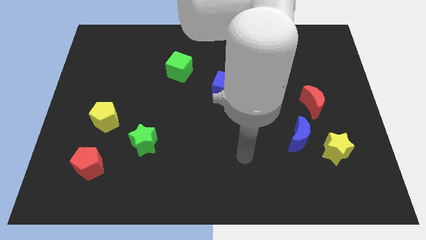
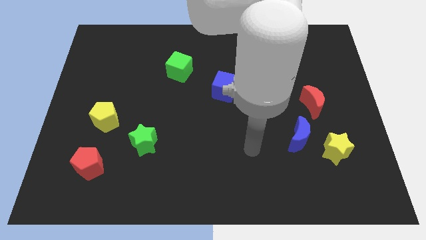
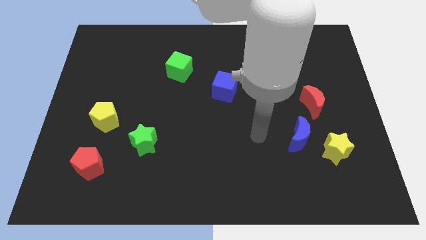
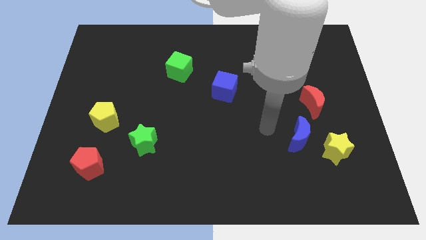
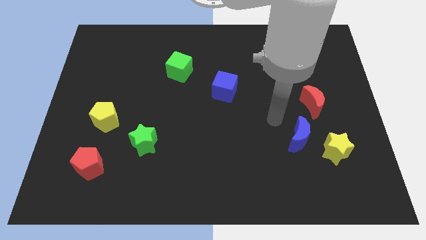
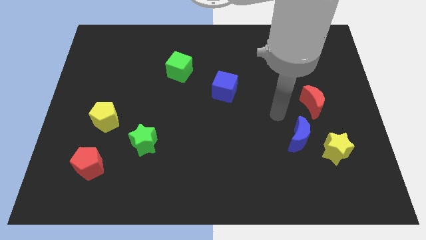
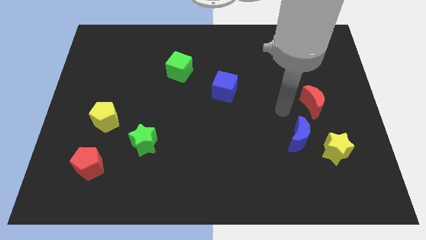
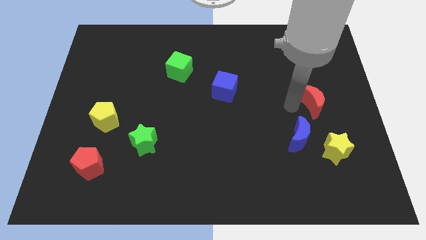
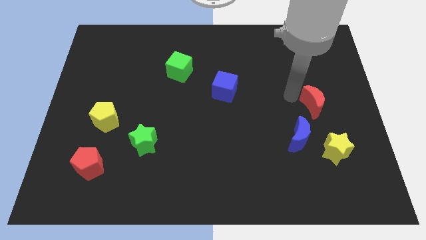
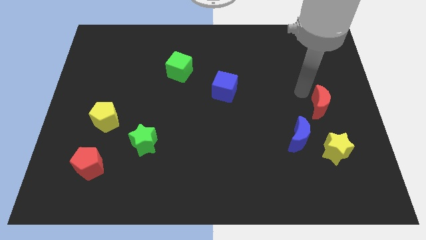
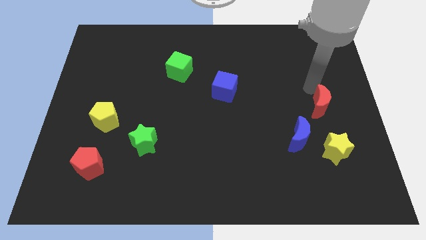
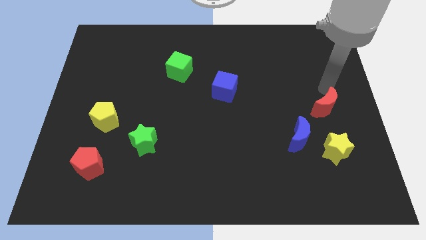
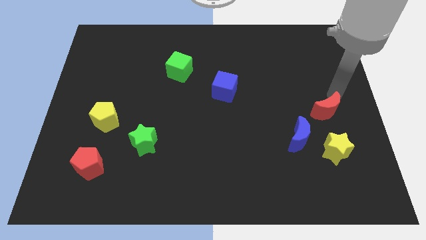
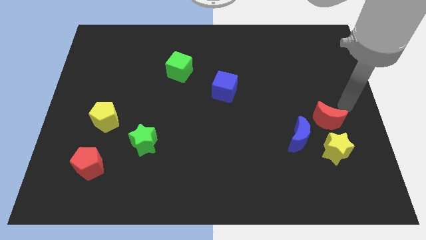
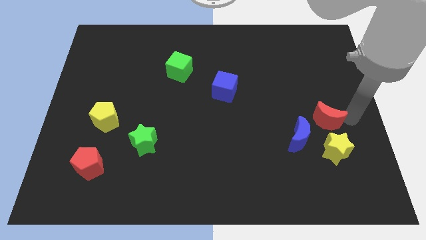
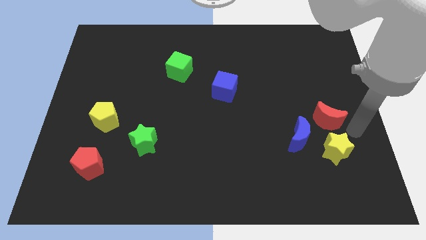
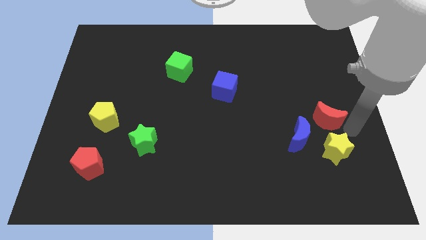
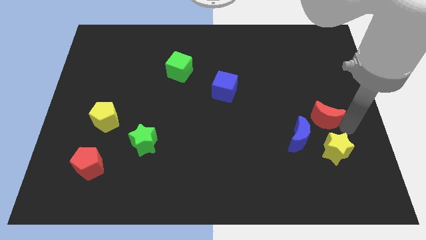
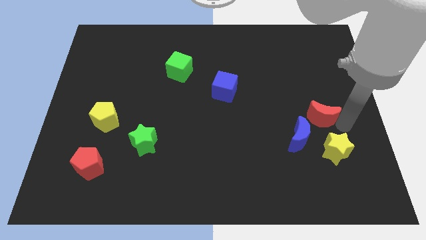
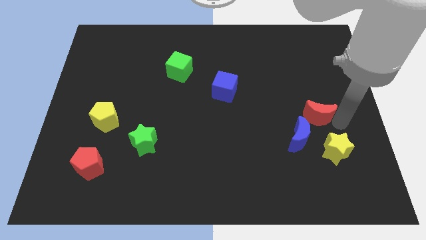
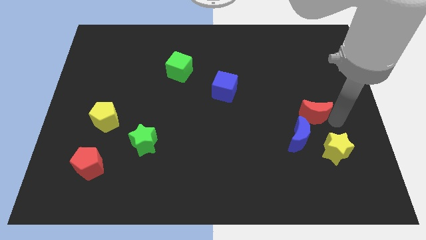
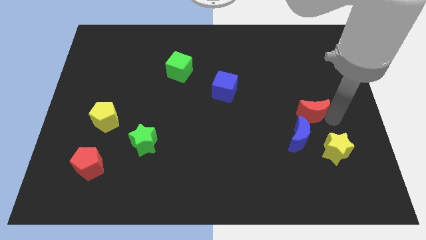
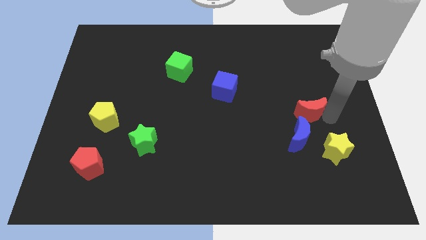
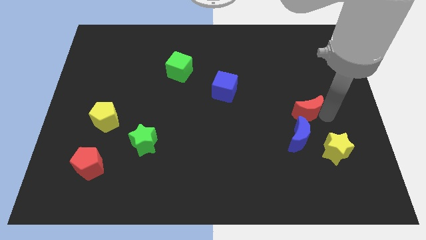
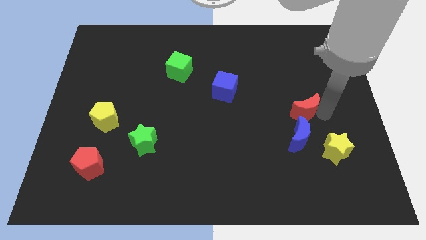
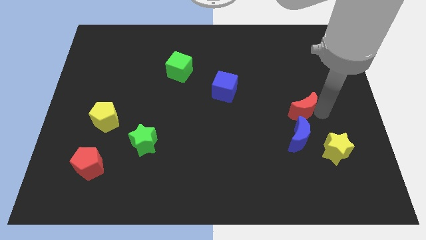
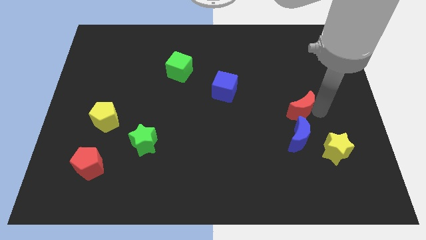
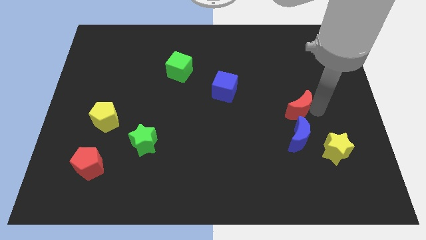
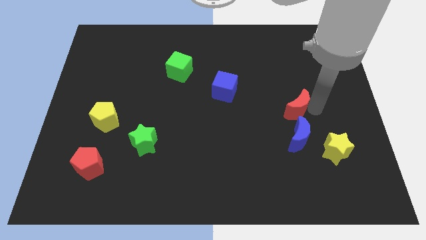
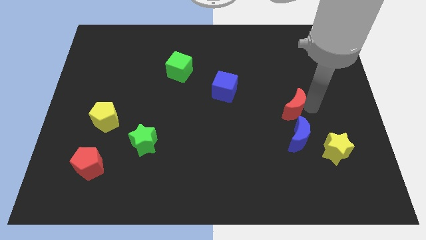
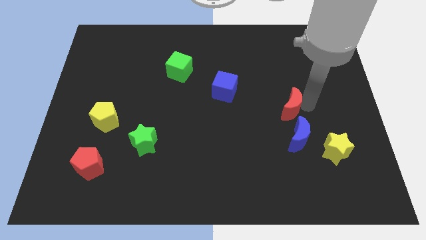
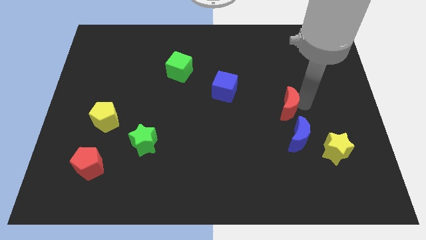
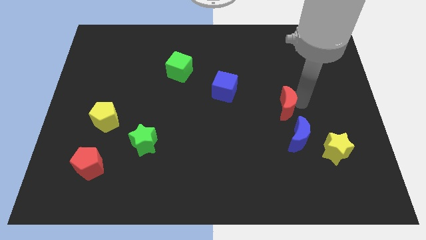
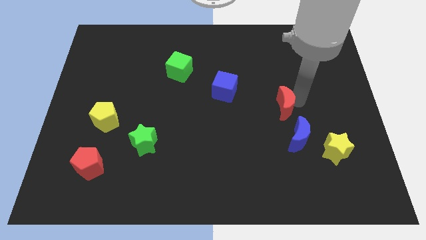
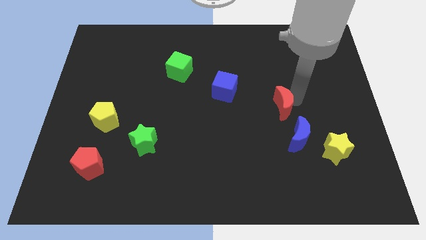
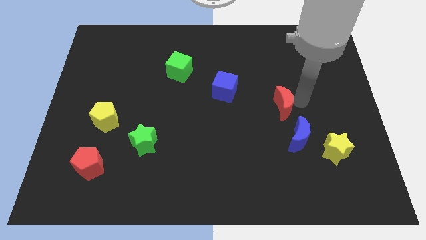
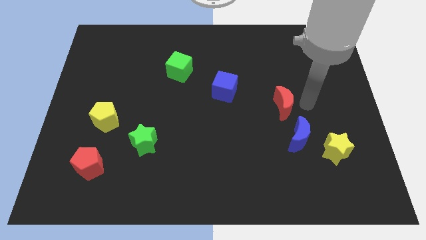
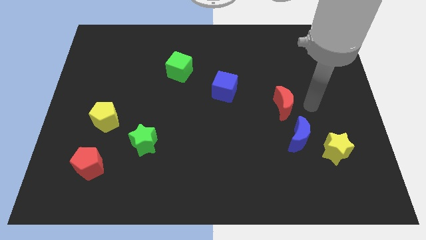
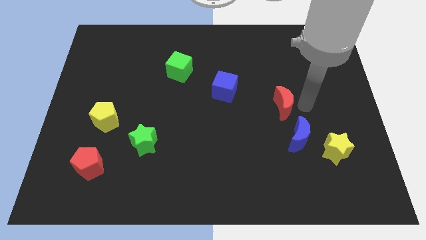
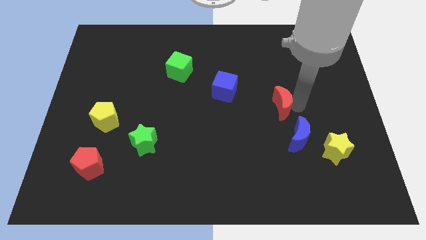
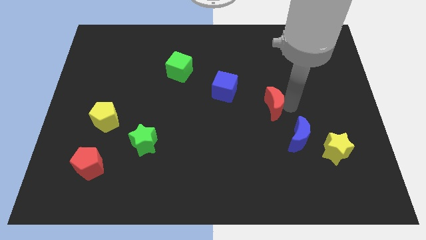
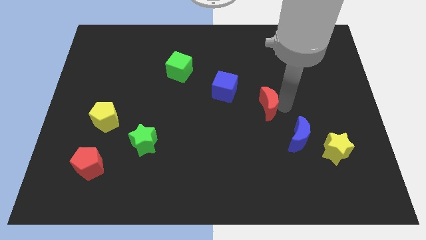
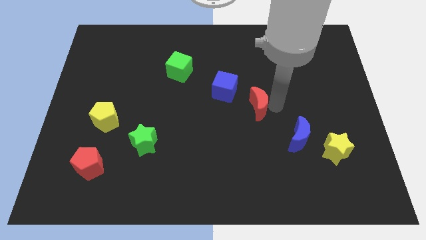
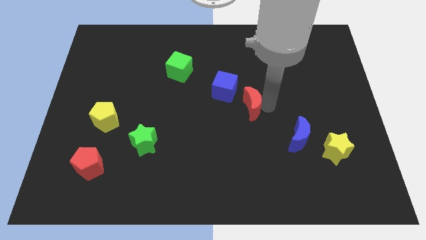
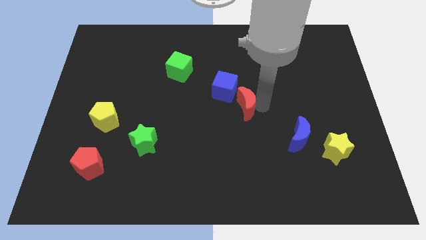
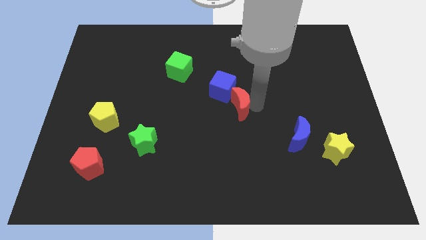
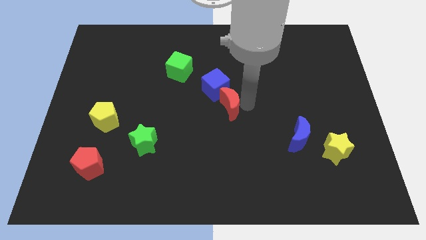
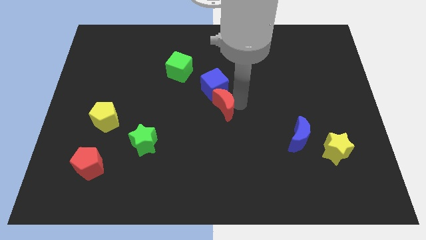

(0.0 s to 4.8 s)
move the red moon to the left

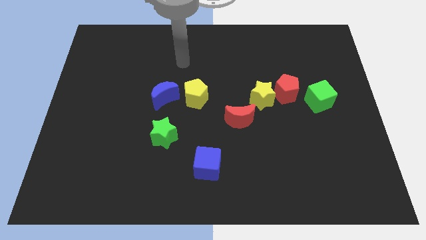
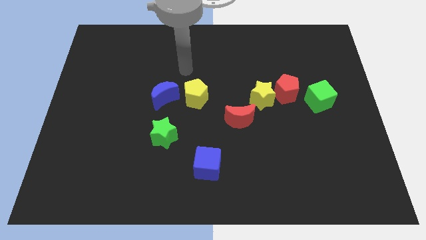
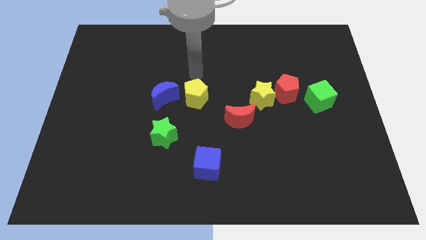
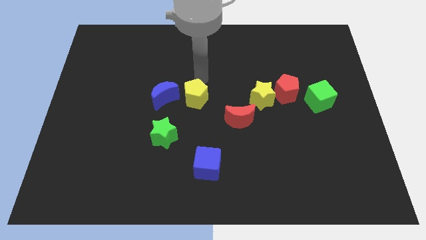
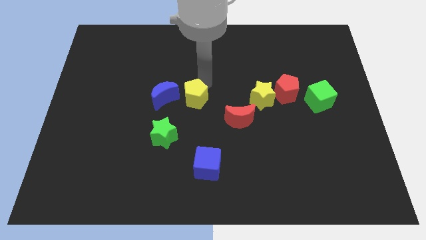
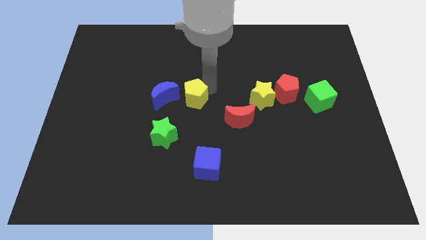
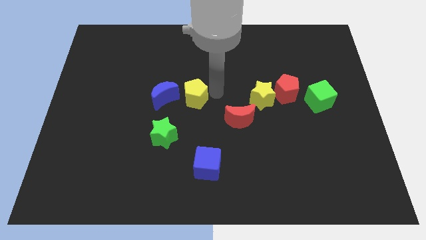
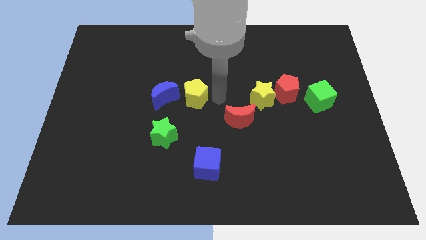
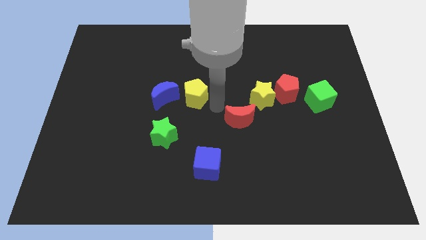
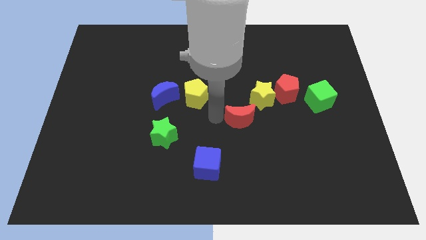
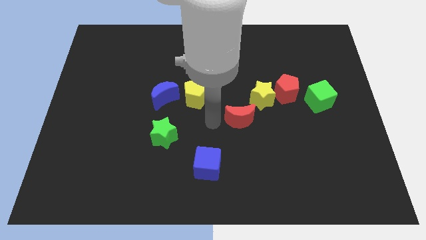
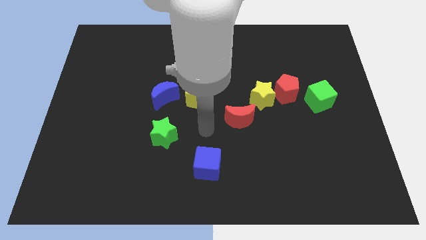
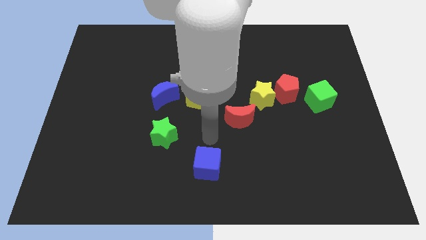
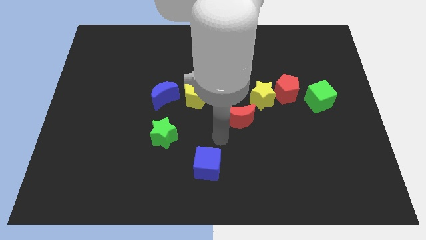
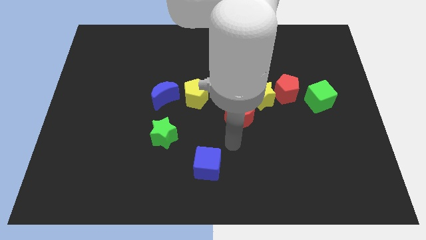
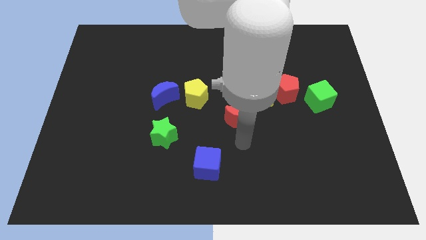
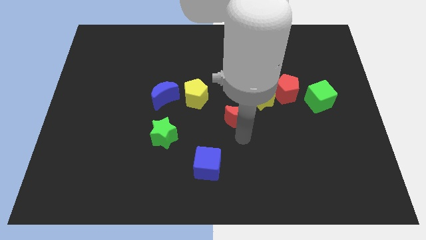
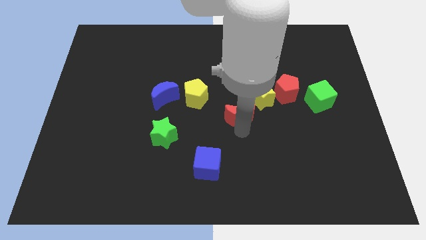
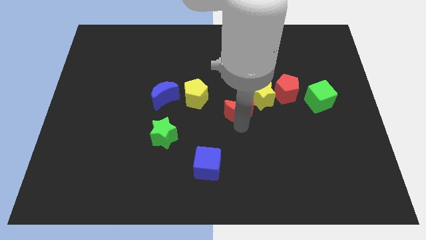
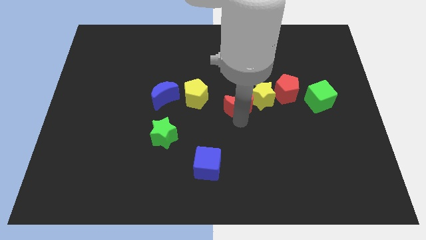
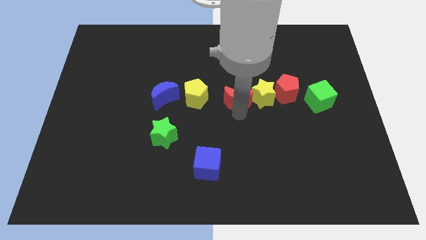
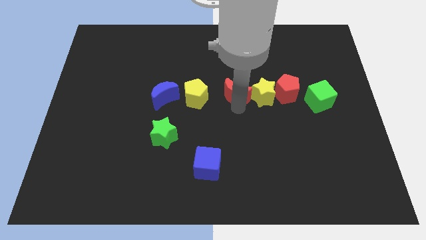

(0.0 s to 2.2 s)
move the red moon up a little

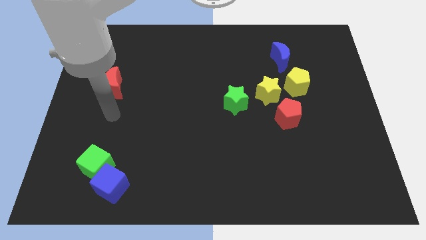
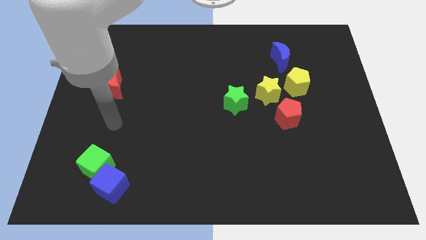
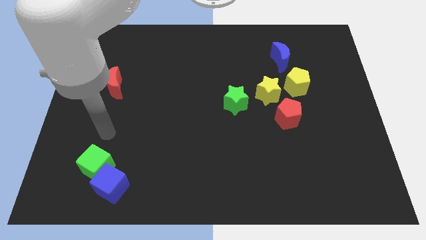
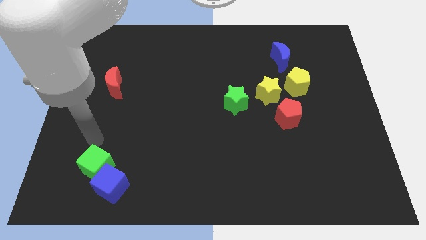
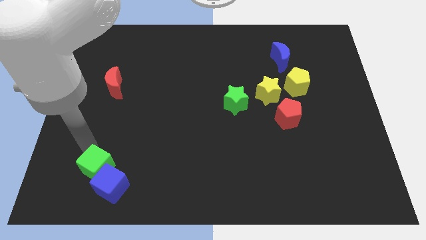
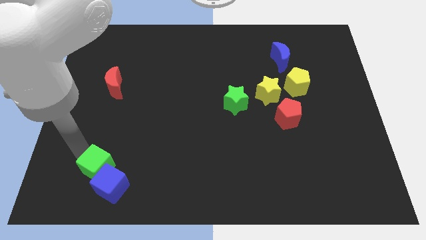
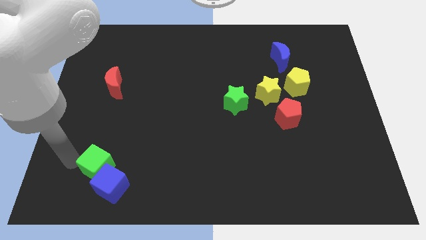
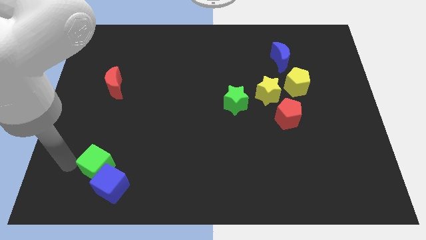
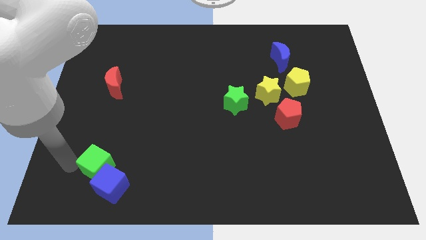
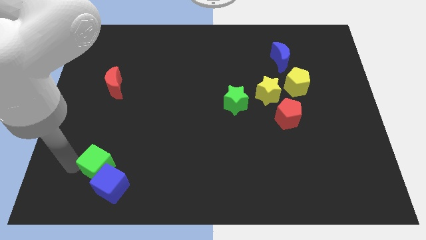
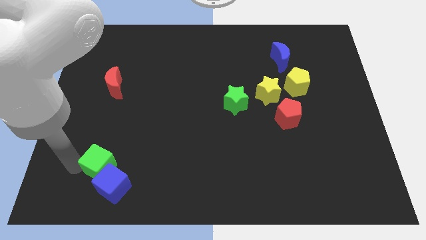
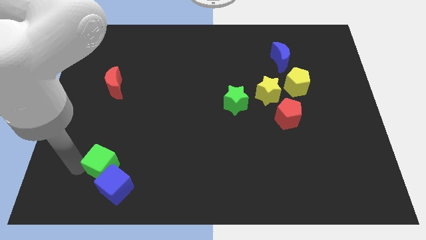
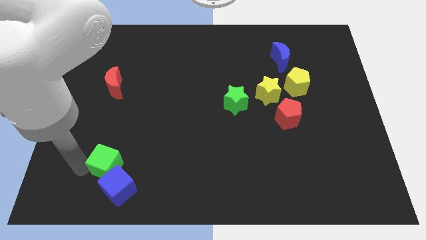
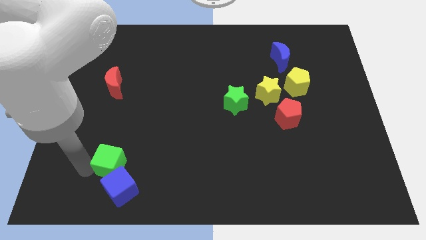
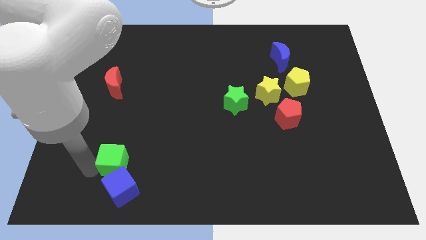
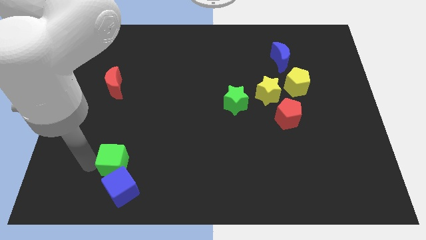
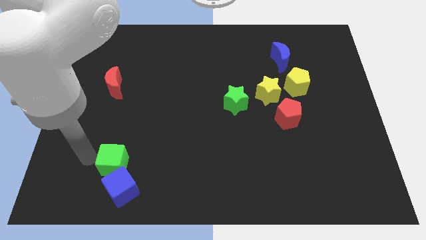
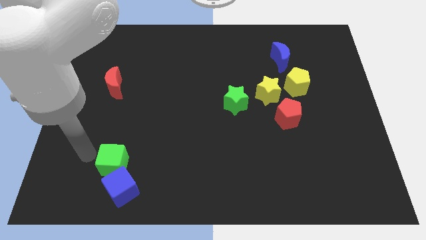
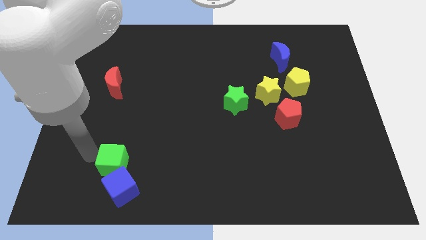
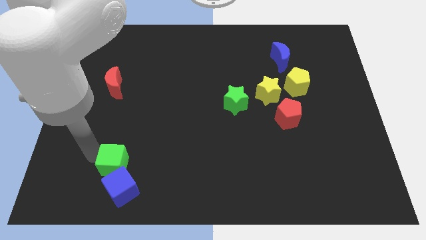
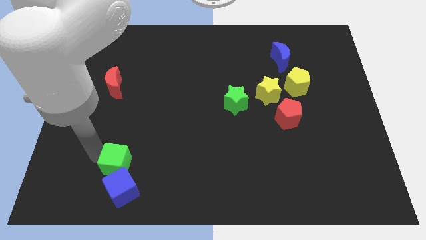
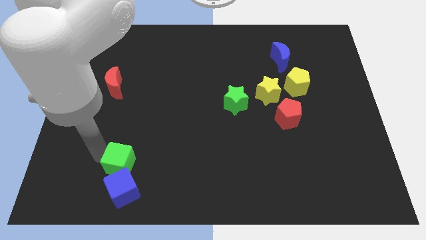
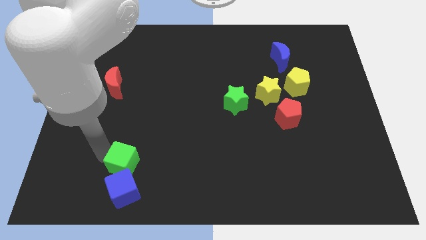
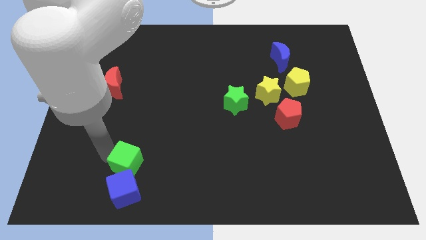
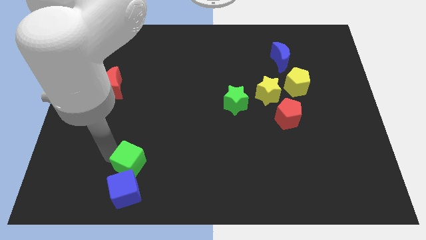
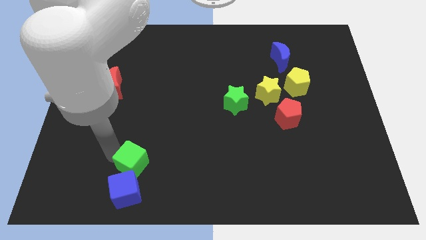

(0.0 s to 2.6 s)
slightly slide the green cube to the right
